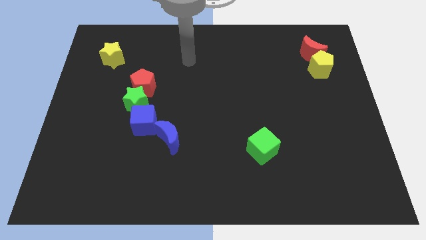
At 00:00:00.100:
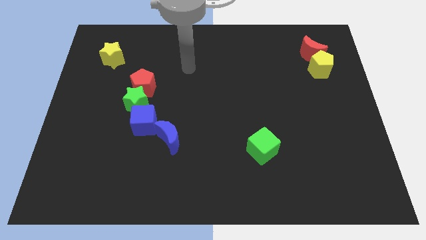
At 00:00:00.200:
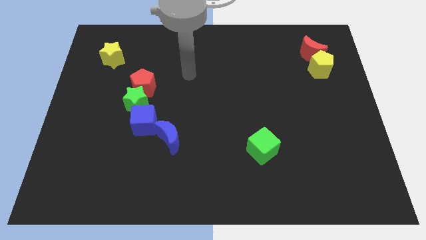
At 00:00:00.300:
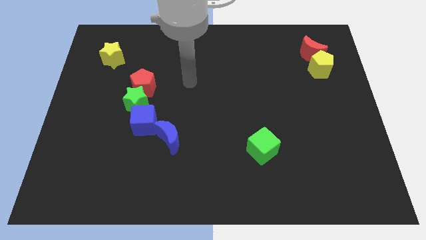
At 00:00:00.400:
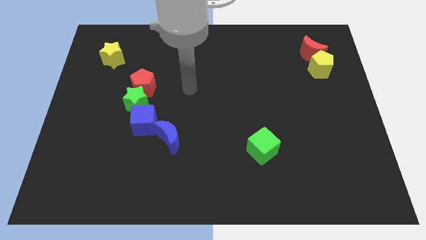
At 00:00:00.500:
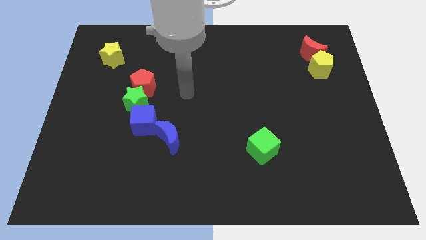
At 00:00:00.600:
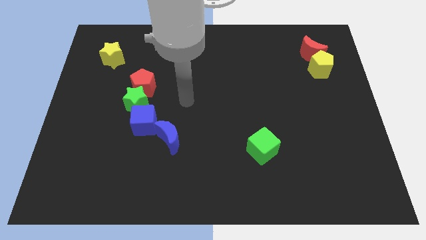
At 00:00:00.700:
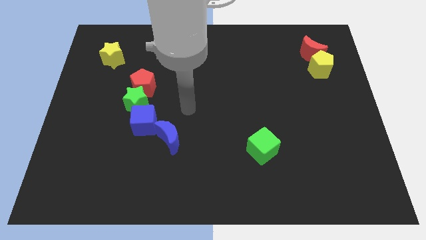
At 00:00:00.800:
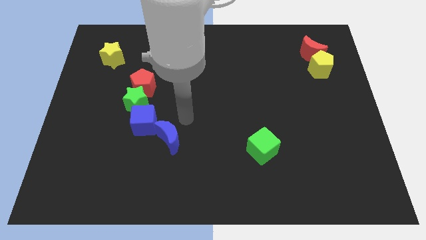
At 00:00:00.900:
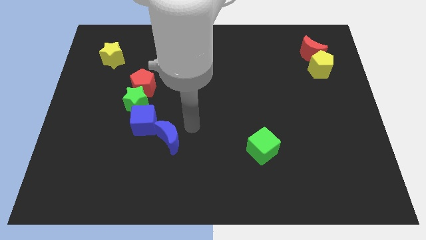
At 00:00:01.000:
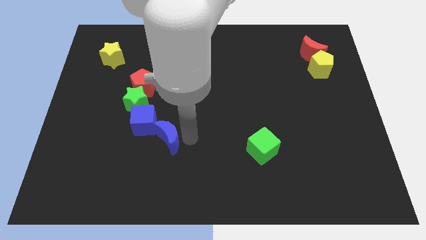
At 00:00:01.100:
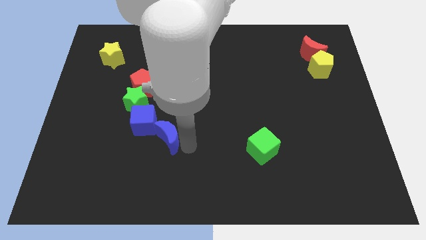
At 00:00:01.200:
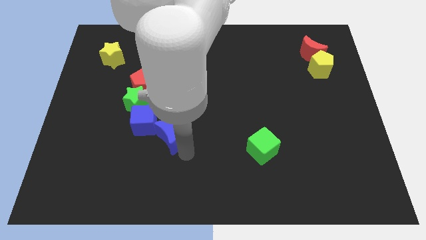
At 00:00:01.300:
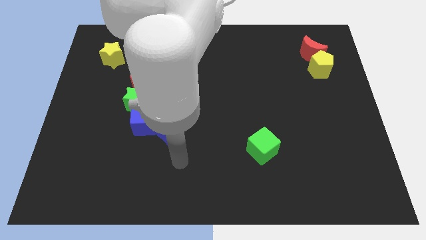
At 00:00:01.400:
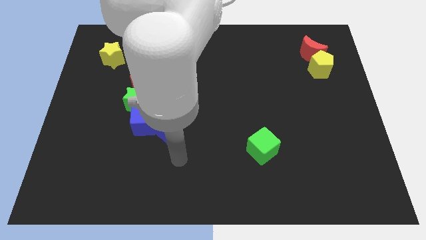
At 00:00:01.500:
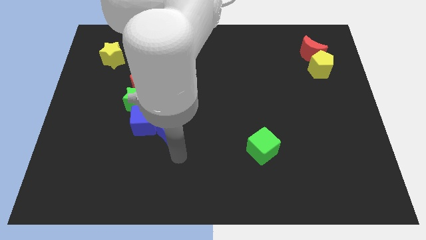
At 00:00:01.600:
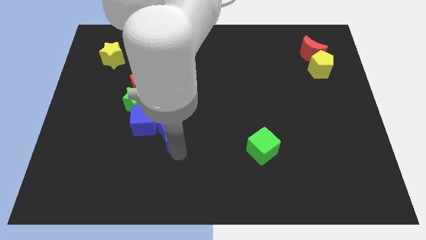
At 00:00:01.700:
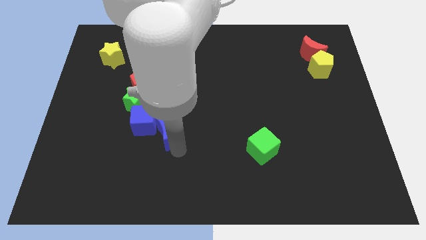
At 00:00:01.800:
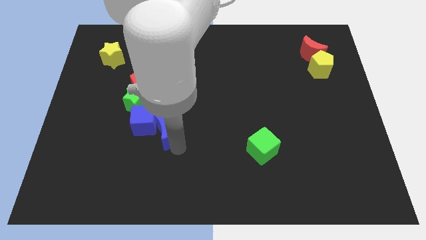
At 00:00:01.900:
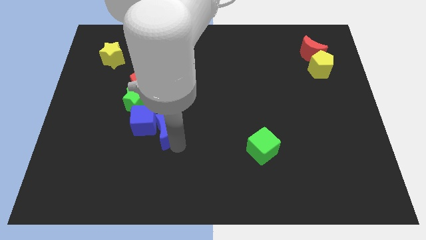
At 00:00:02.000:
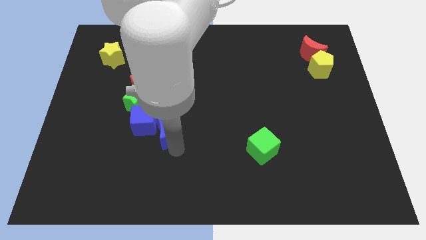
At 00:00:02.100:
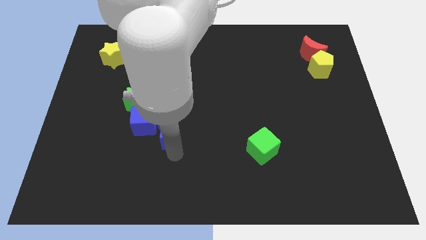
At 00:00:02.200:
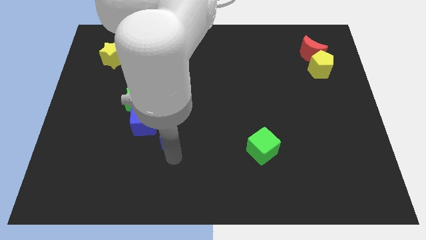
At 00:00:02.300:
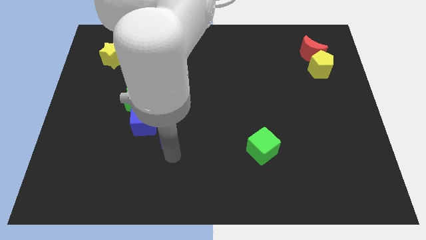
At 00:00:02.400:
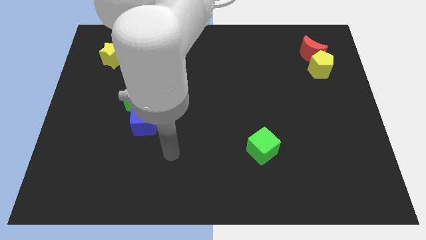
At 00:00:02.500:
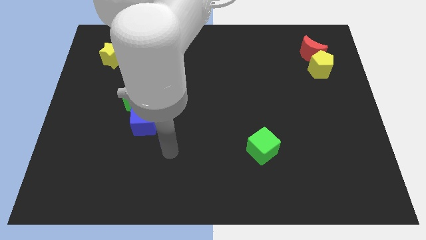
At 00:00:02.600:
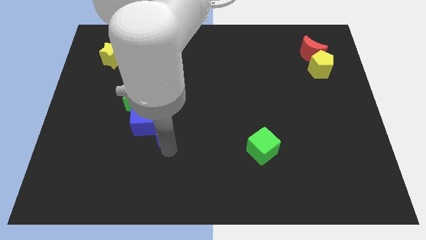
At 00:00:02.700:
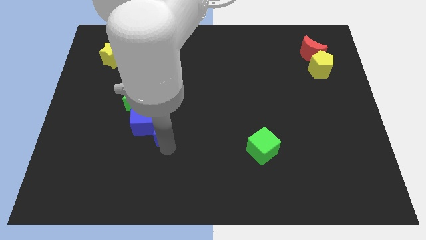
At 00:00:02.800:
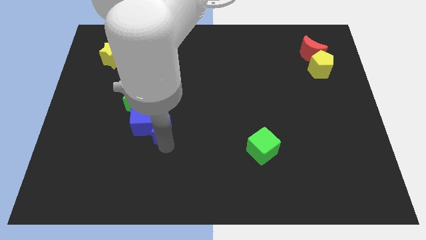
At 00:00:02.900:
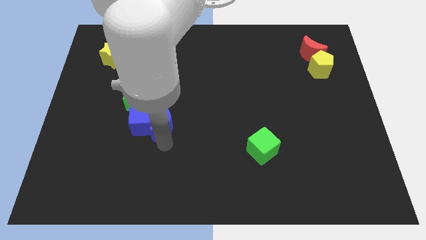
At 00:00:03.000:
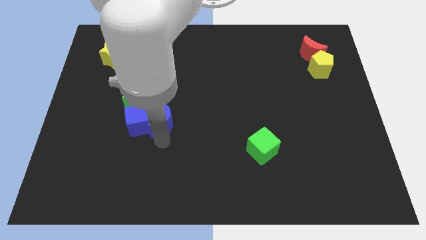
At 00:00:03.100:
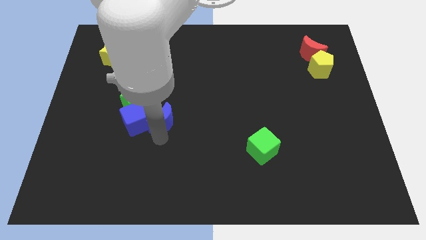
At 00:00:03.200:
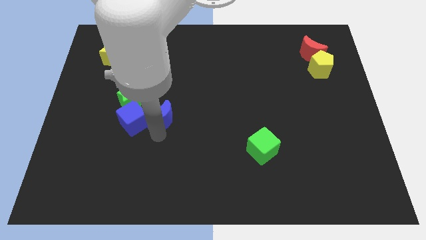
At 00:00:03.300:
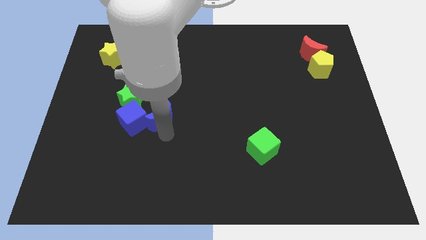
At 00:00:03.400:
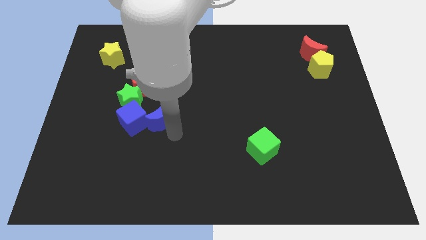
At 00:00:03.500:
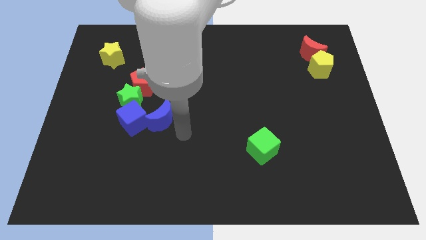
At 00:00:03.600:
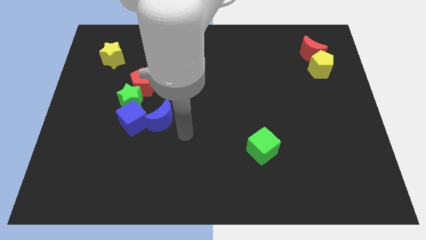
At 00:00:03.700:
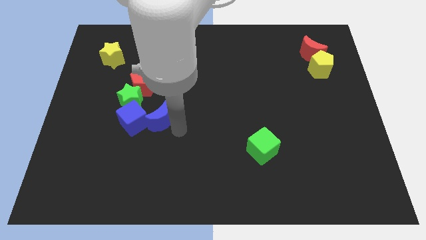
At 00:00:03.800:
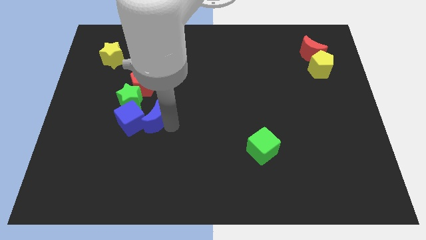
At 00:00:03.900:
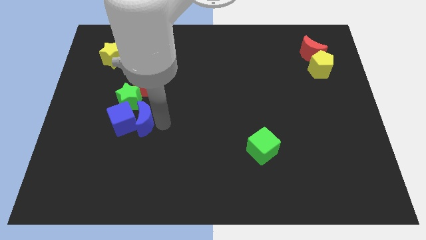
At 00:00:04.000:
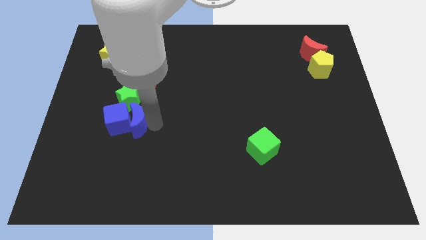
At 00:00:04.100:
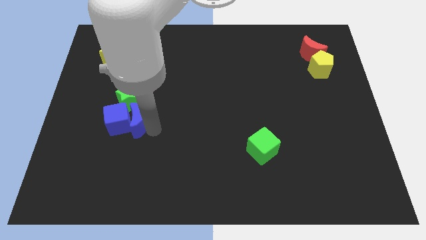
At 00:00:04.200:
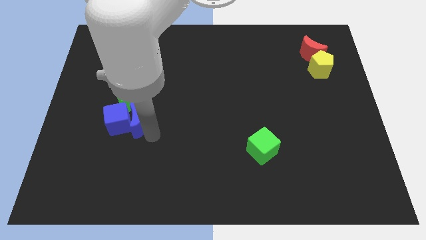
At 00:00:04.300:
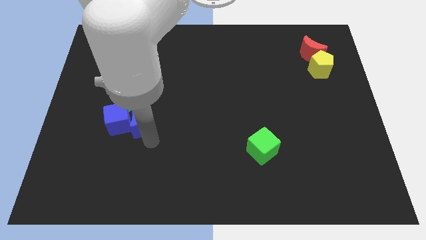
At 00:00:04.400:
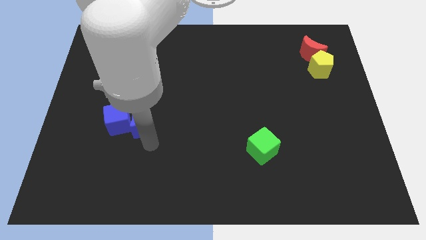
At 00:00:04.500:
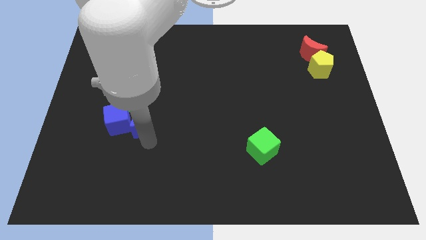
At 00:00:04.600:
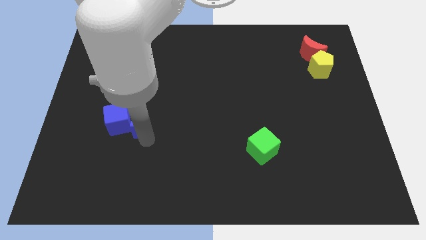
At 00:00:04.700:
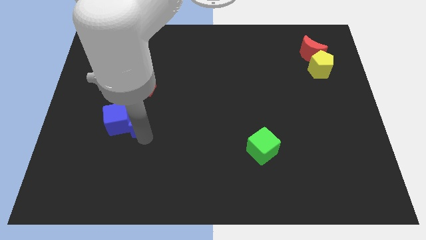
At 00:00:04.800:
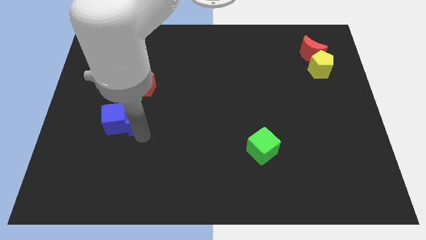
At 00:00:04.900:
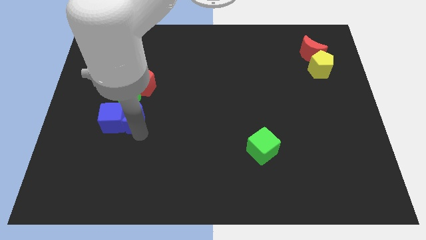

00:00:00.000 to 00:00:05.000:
put the blue moon to the green star

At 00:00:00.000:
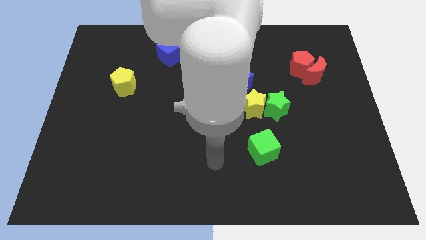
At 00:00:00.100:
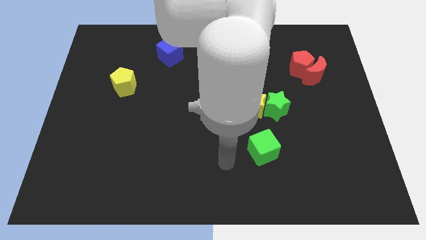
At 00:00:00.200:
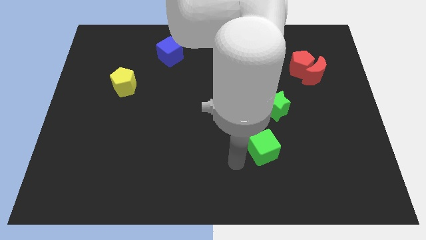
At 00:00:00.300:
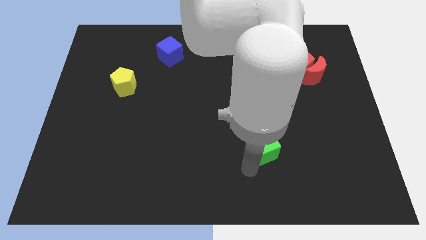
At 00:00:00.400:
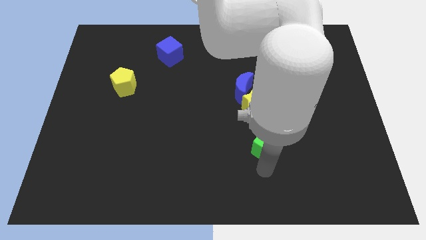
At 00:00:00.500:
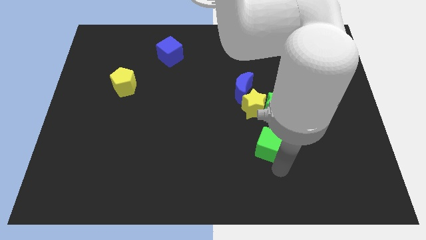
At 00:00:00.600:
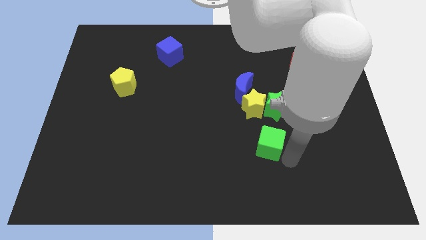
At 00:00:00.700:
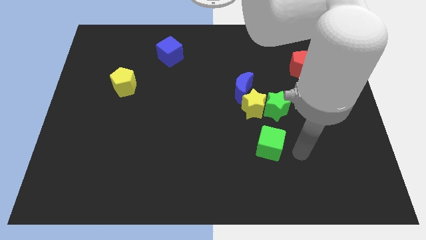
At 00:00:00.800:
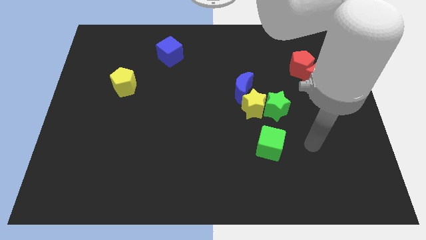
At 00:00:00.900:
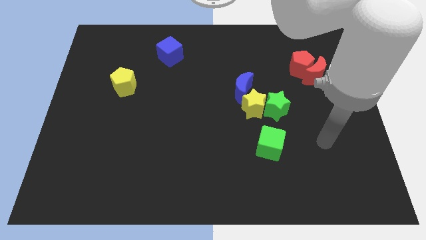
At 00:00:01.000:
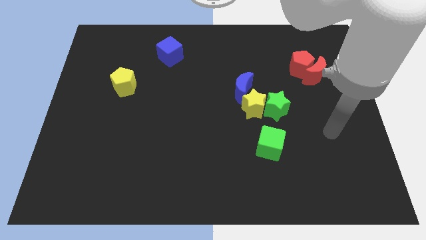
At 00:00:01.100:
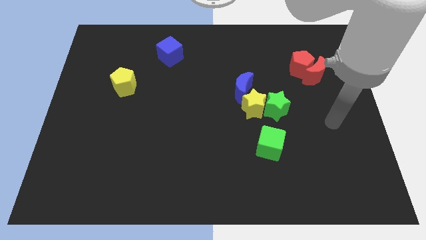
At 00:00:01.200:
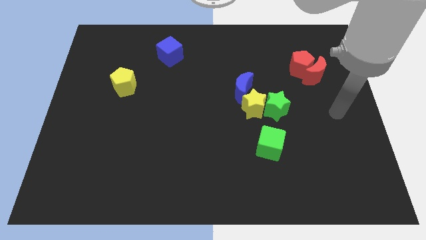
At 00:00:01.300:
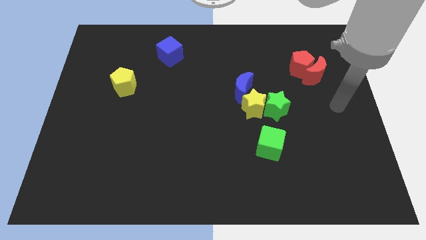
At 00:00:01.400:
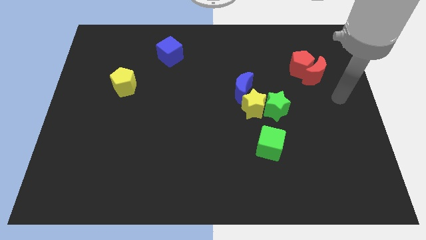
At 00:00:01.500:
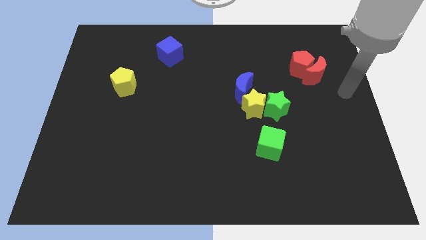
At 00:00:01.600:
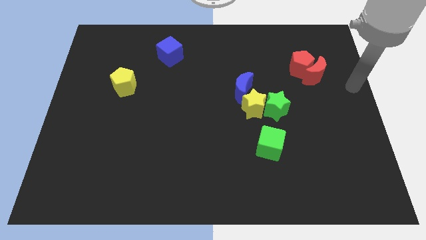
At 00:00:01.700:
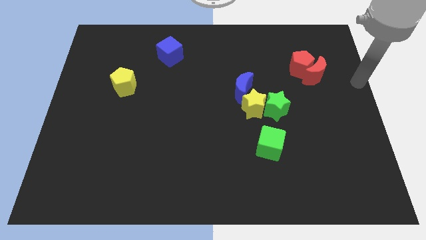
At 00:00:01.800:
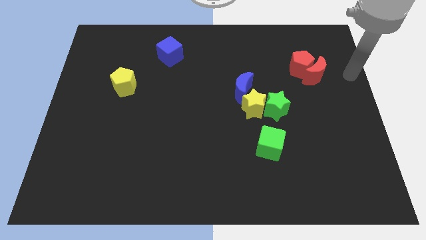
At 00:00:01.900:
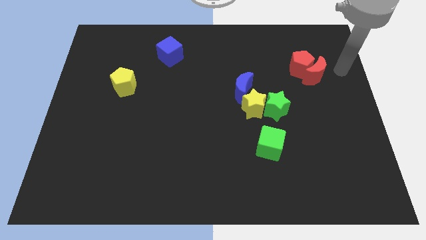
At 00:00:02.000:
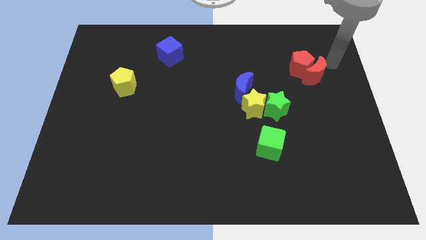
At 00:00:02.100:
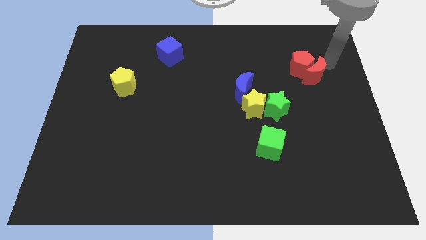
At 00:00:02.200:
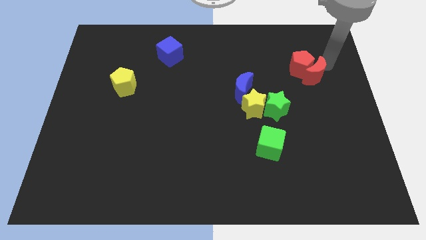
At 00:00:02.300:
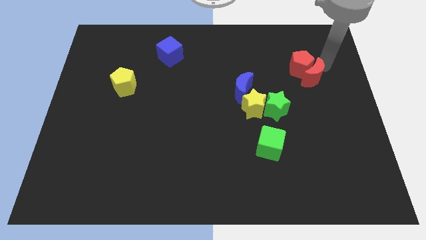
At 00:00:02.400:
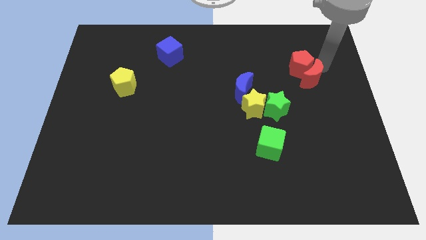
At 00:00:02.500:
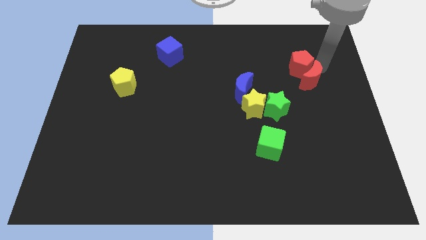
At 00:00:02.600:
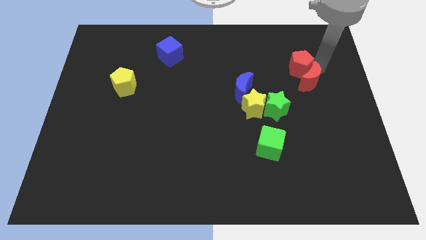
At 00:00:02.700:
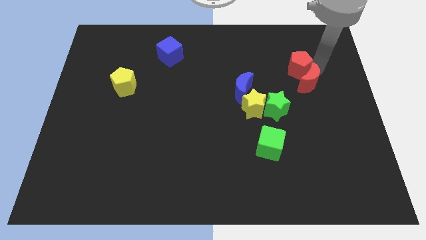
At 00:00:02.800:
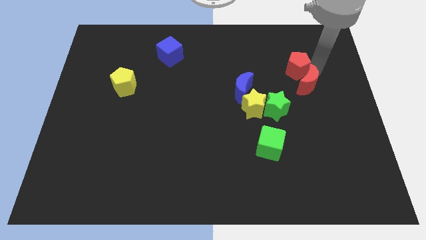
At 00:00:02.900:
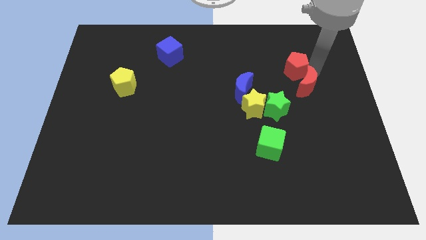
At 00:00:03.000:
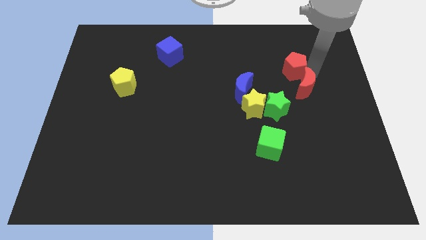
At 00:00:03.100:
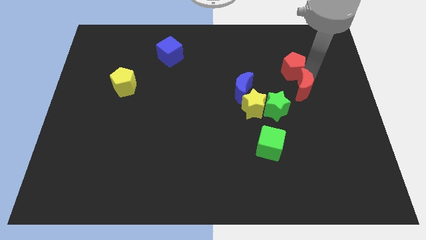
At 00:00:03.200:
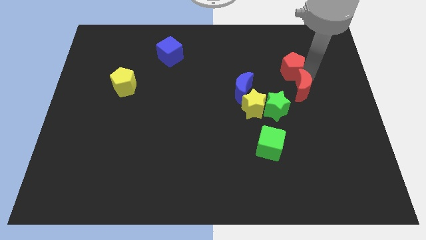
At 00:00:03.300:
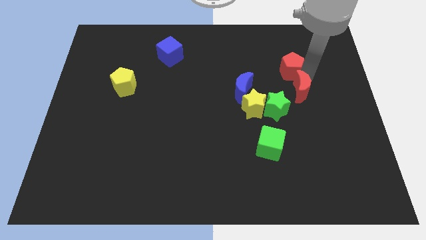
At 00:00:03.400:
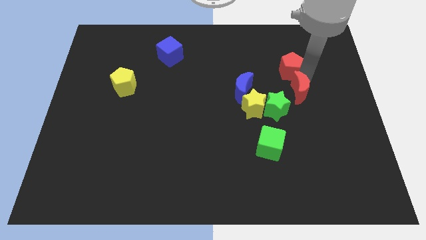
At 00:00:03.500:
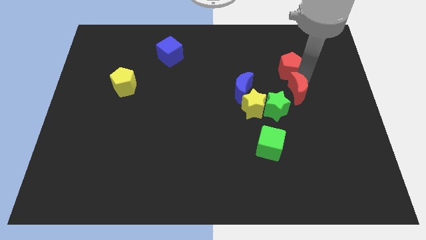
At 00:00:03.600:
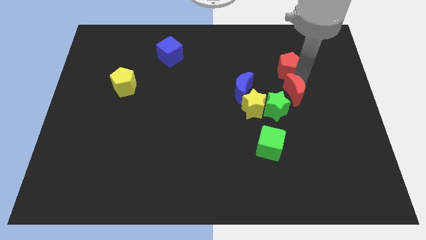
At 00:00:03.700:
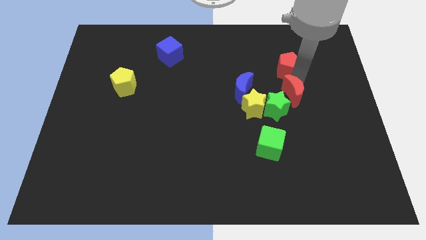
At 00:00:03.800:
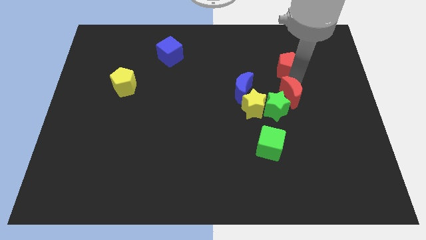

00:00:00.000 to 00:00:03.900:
slide the red moon close to the green star
